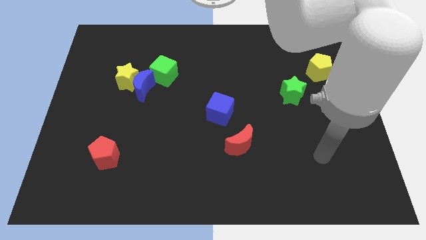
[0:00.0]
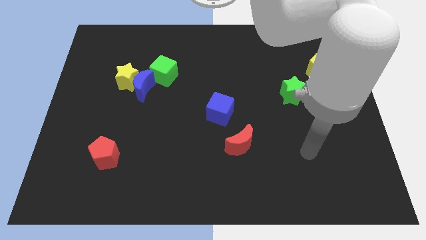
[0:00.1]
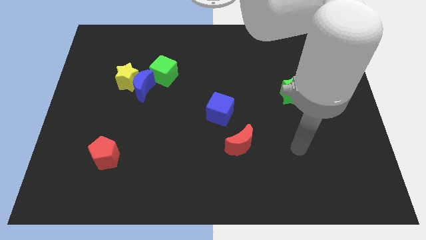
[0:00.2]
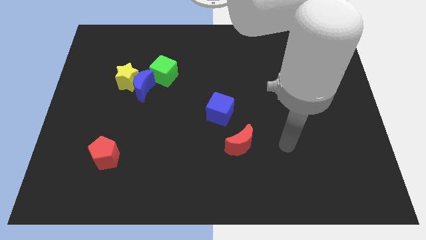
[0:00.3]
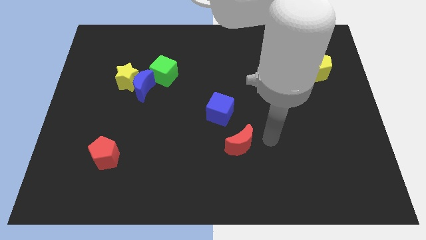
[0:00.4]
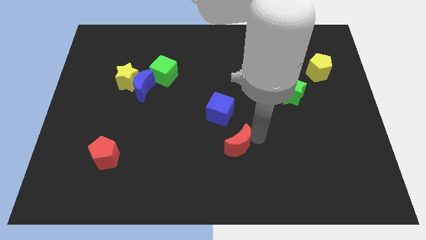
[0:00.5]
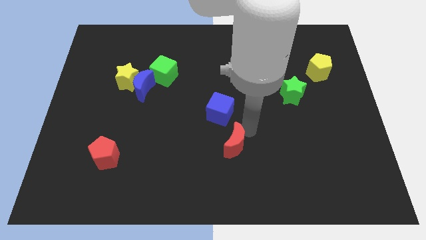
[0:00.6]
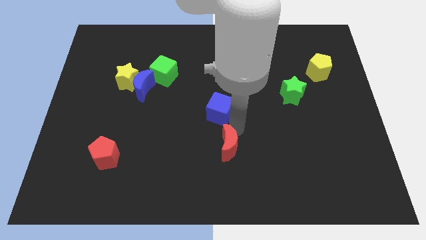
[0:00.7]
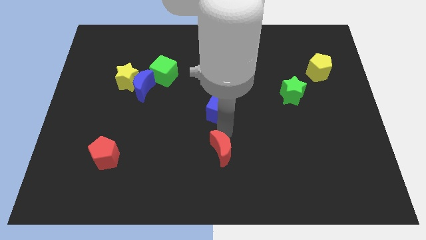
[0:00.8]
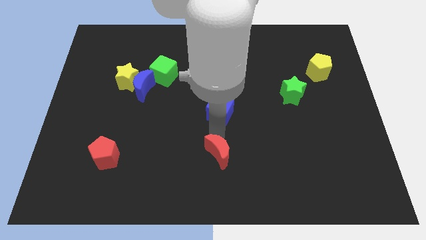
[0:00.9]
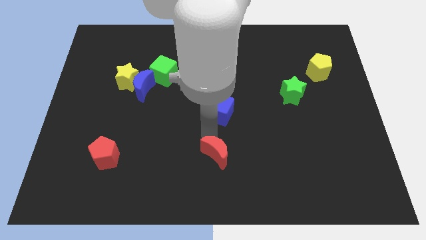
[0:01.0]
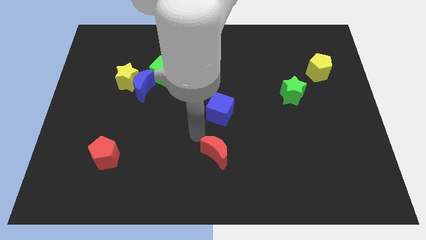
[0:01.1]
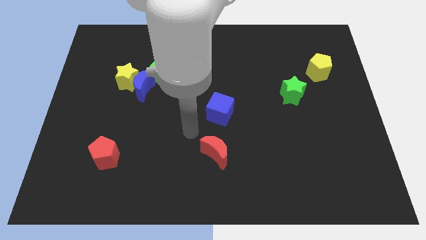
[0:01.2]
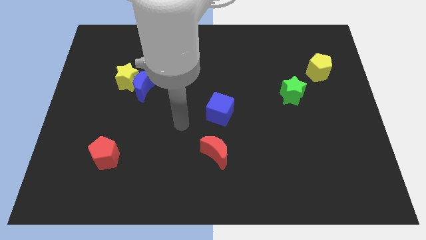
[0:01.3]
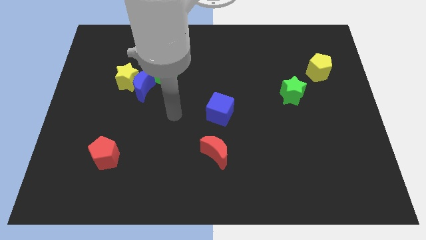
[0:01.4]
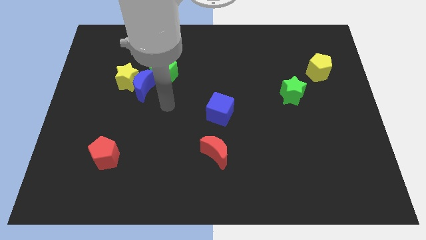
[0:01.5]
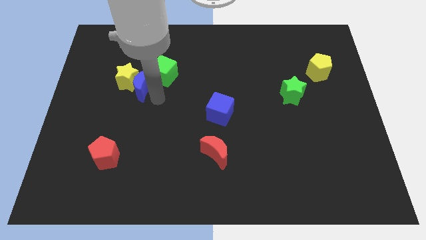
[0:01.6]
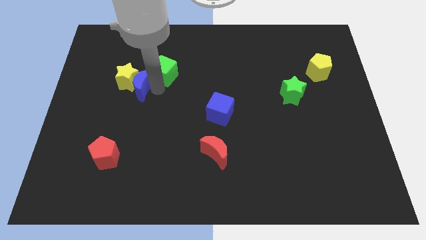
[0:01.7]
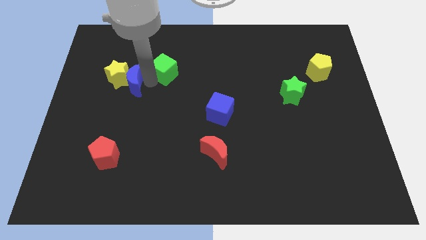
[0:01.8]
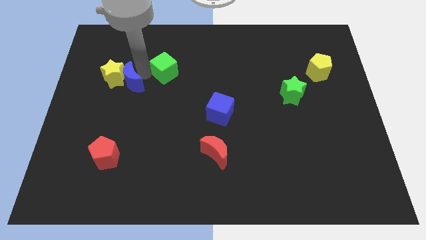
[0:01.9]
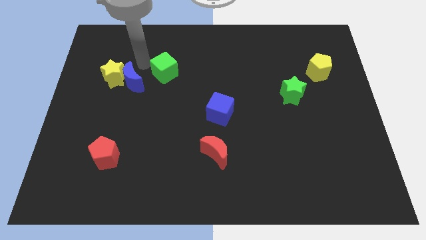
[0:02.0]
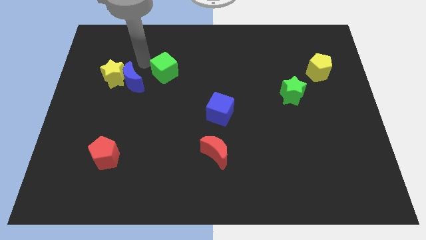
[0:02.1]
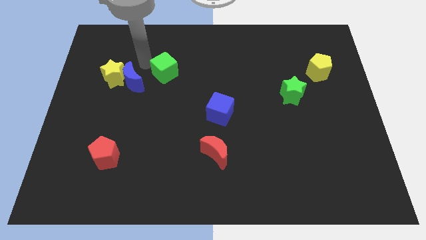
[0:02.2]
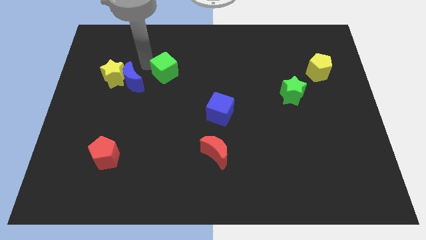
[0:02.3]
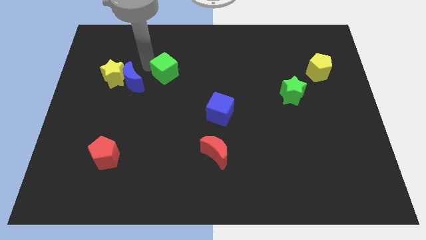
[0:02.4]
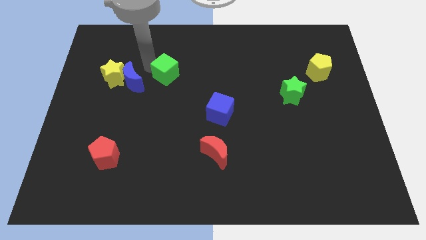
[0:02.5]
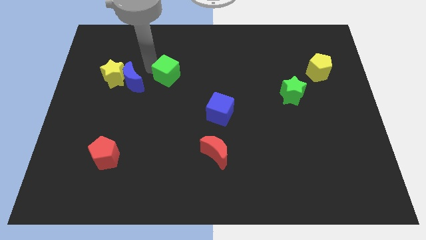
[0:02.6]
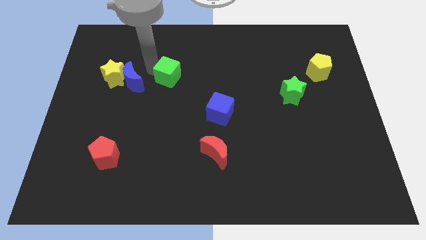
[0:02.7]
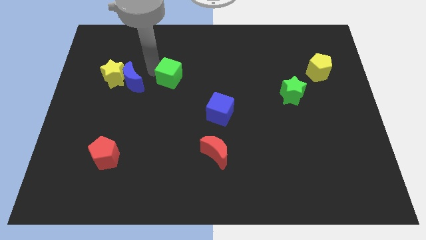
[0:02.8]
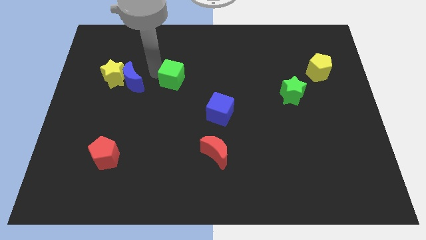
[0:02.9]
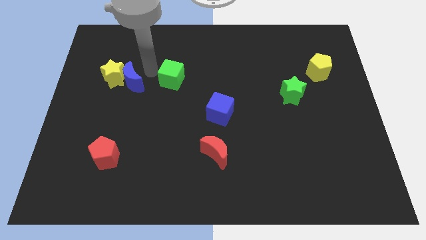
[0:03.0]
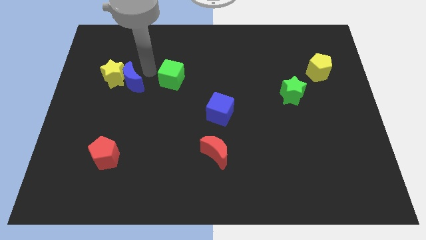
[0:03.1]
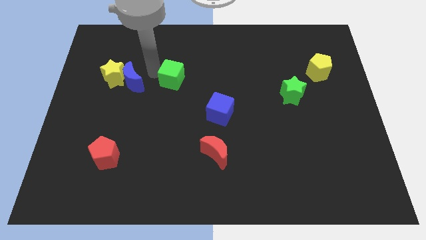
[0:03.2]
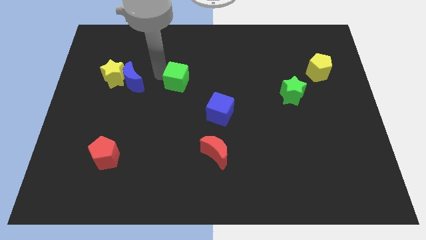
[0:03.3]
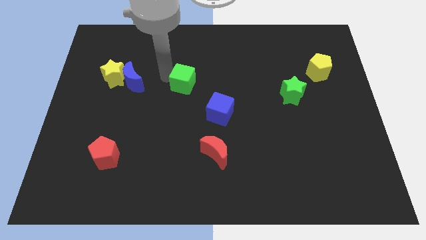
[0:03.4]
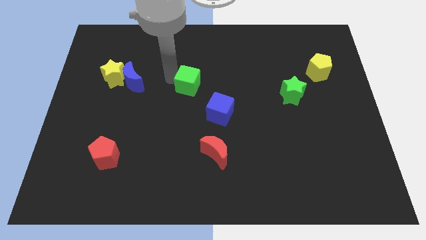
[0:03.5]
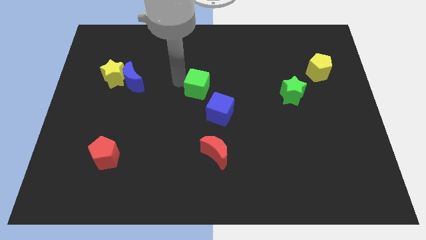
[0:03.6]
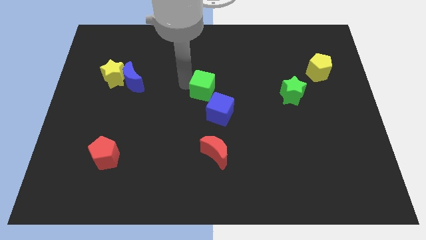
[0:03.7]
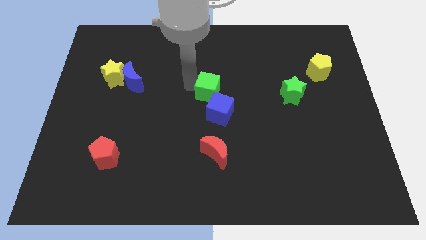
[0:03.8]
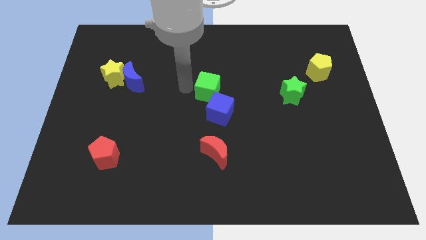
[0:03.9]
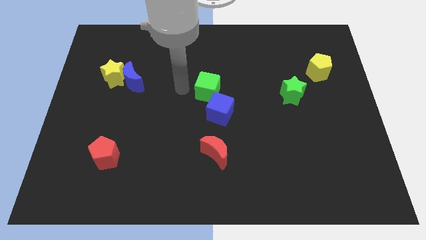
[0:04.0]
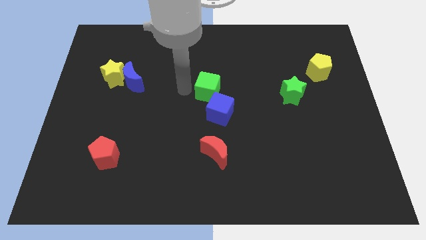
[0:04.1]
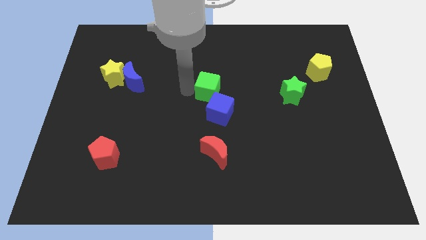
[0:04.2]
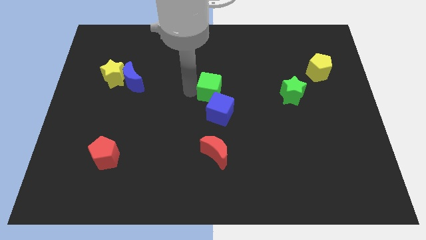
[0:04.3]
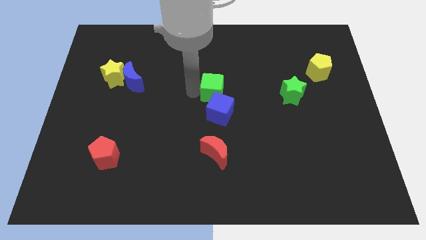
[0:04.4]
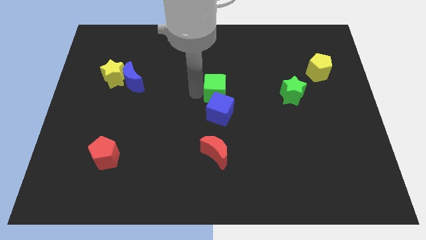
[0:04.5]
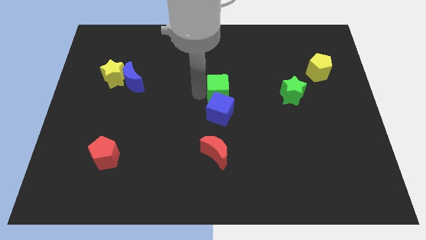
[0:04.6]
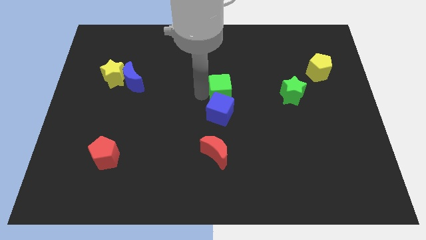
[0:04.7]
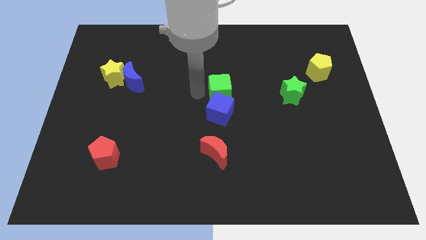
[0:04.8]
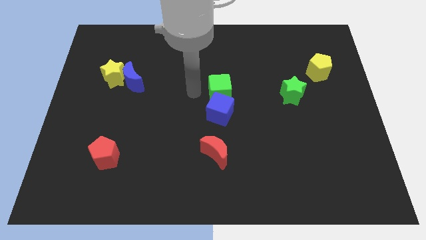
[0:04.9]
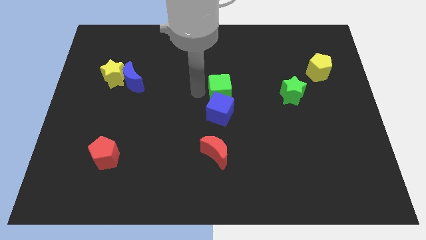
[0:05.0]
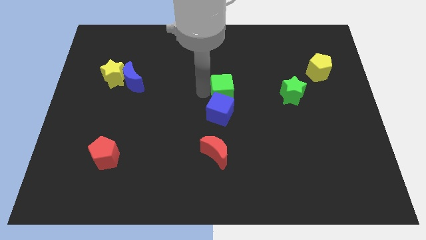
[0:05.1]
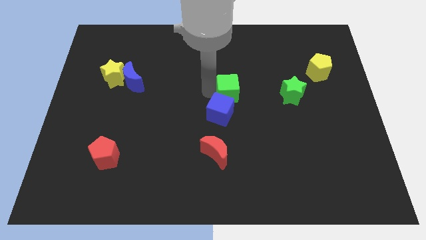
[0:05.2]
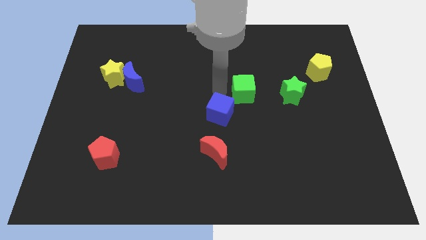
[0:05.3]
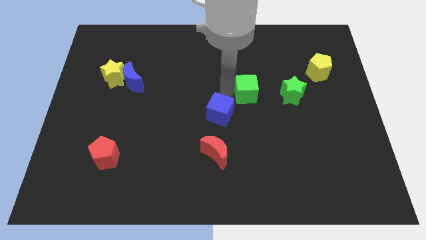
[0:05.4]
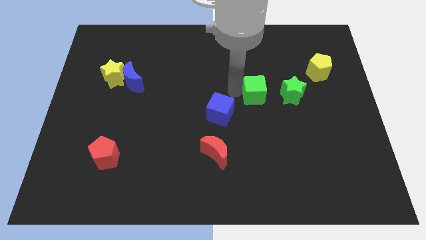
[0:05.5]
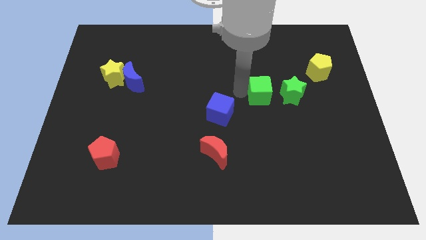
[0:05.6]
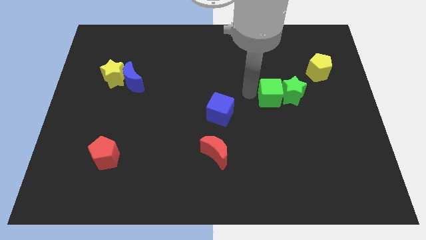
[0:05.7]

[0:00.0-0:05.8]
put the green cube close to the green star

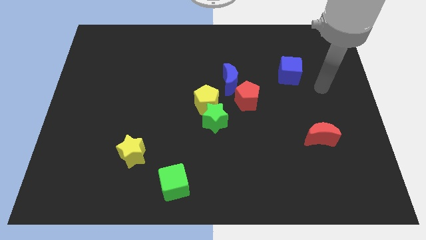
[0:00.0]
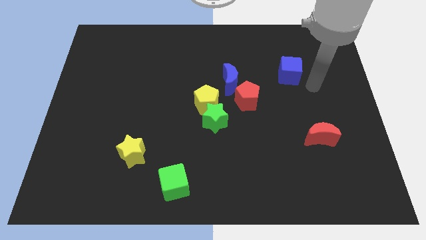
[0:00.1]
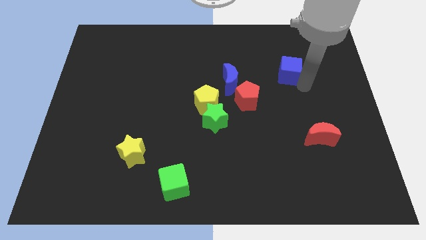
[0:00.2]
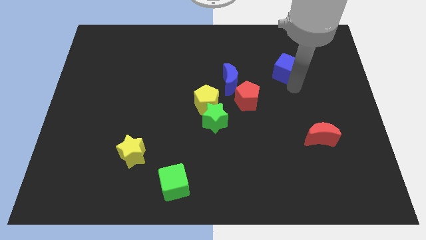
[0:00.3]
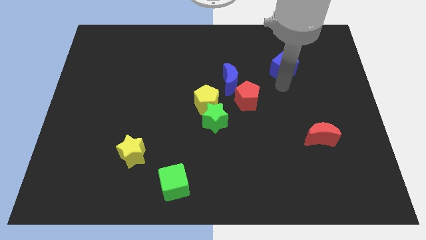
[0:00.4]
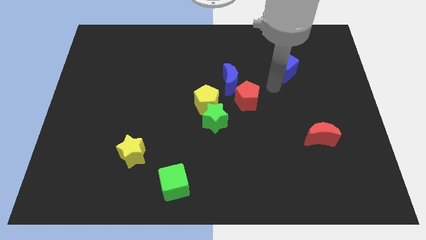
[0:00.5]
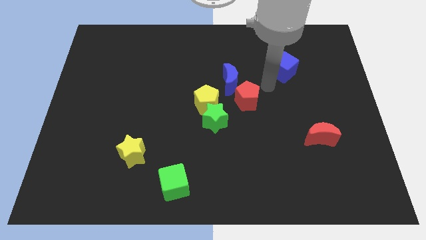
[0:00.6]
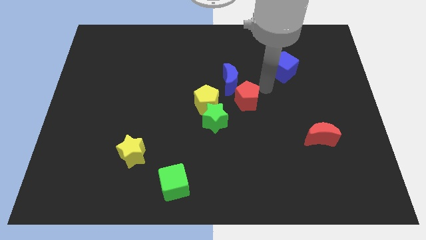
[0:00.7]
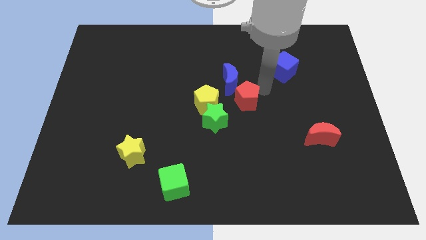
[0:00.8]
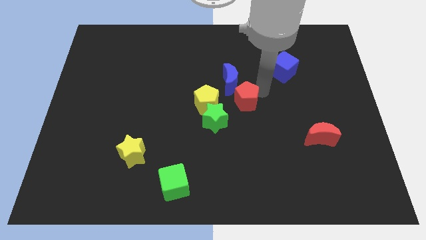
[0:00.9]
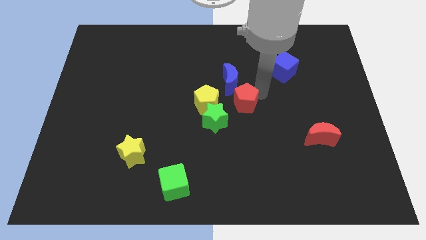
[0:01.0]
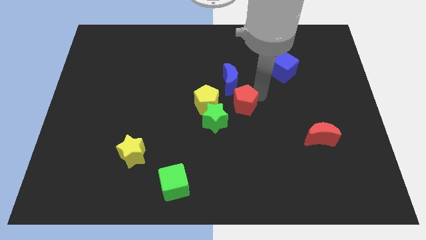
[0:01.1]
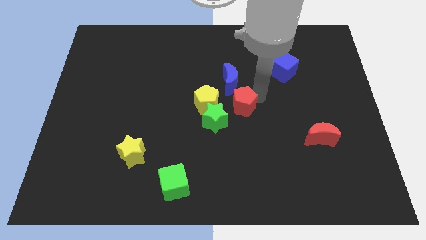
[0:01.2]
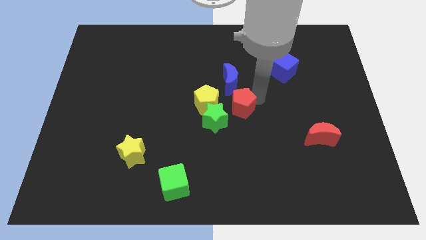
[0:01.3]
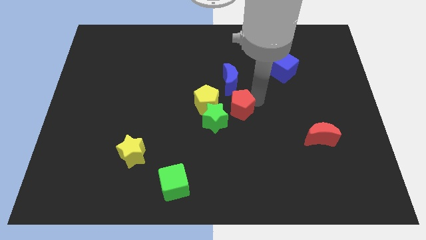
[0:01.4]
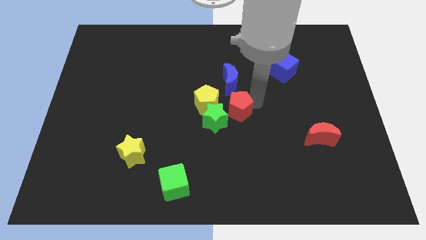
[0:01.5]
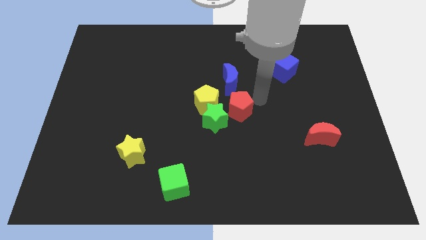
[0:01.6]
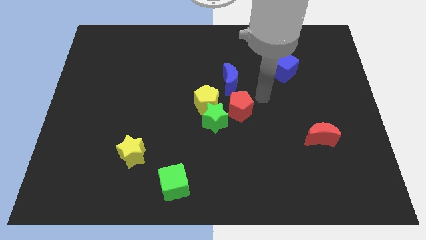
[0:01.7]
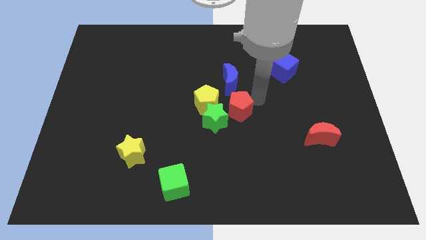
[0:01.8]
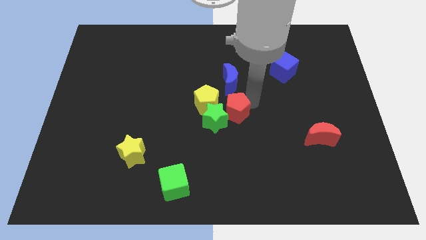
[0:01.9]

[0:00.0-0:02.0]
put the red pentagon towards the green star
